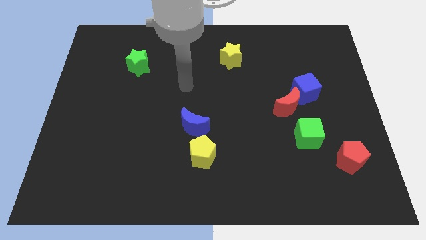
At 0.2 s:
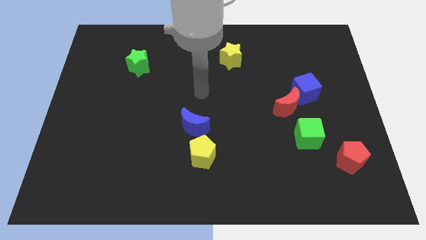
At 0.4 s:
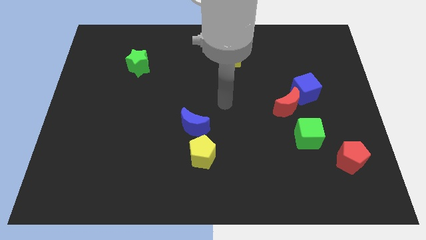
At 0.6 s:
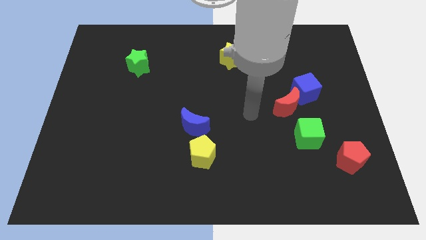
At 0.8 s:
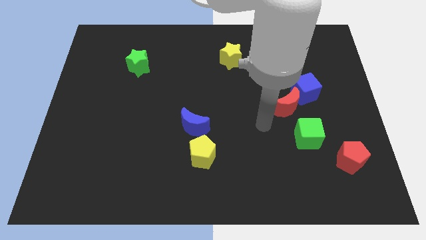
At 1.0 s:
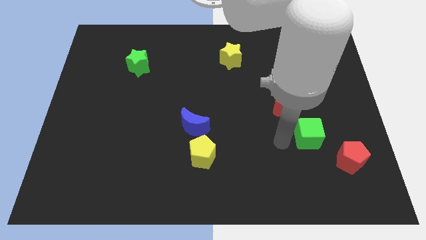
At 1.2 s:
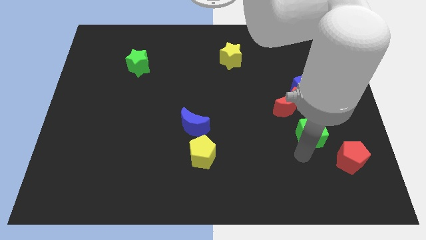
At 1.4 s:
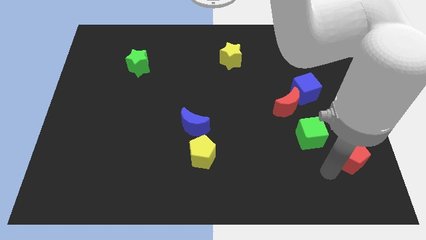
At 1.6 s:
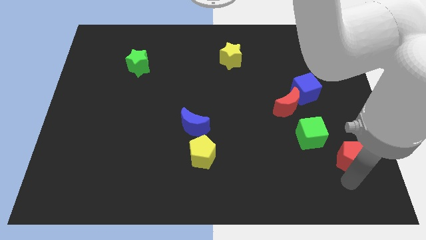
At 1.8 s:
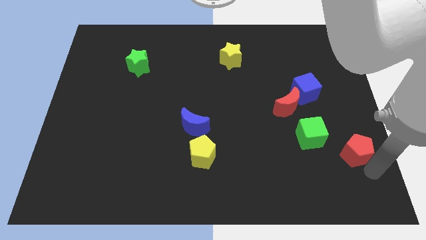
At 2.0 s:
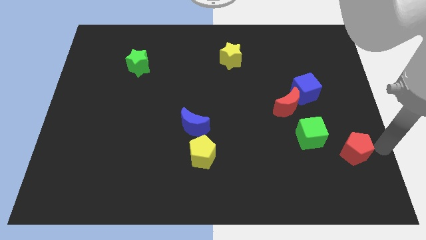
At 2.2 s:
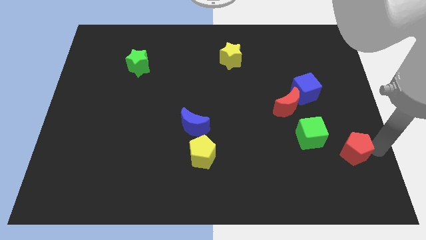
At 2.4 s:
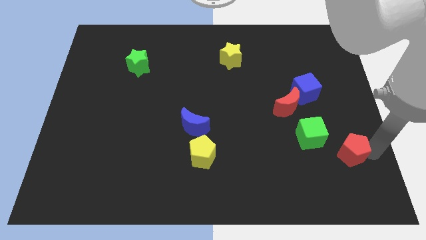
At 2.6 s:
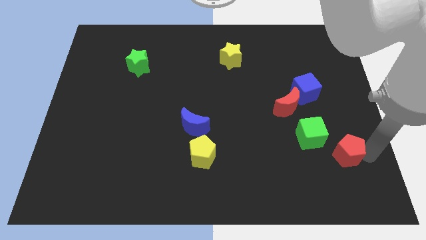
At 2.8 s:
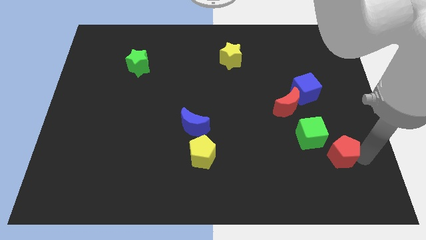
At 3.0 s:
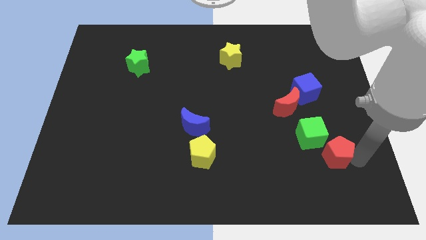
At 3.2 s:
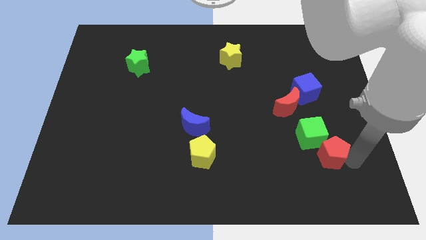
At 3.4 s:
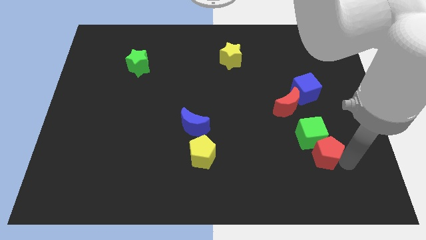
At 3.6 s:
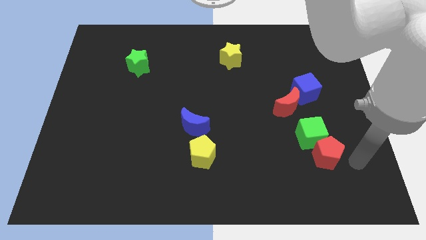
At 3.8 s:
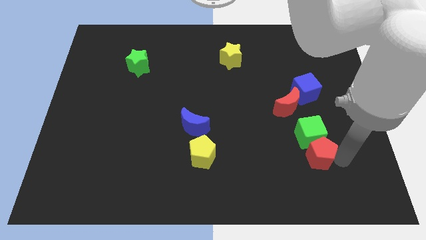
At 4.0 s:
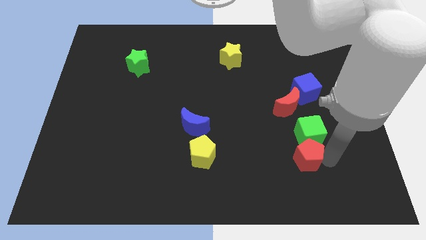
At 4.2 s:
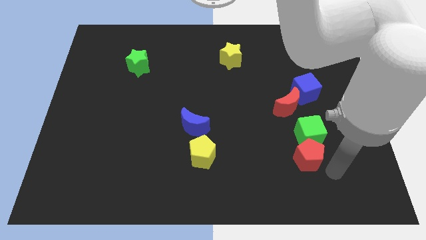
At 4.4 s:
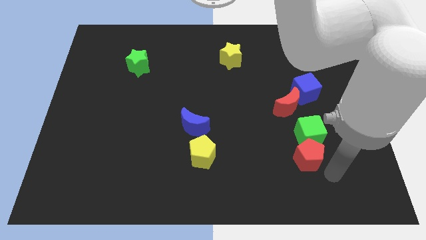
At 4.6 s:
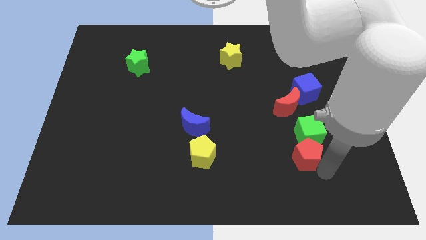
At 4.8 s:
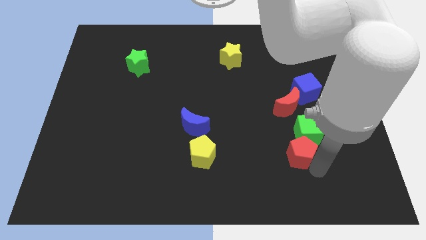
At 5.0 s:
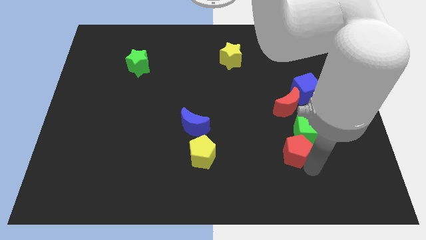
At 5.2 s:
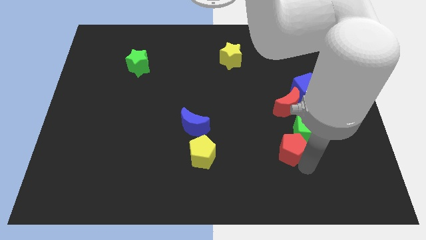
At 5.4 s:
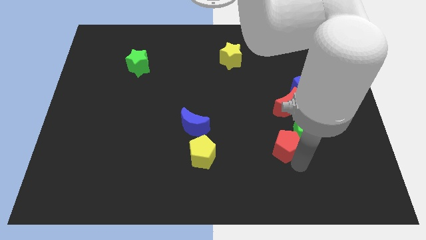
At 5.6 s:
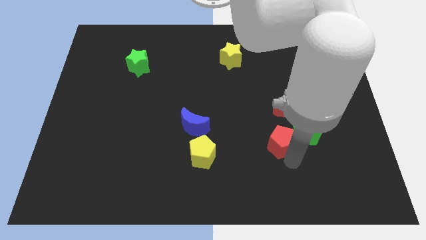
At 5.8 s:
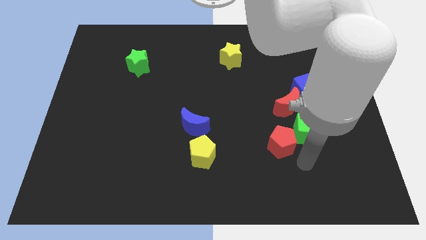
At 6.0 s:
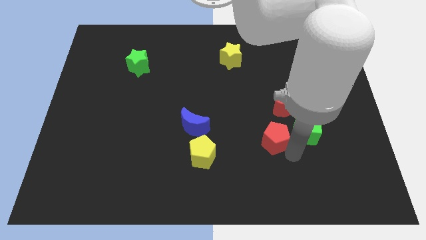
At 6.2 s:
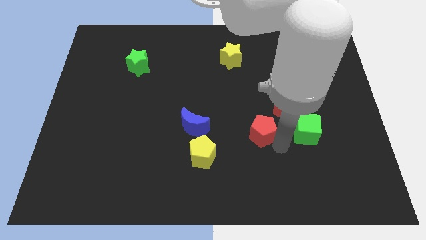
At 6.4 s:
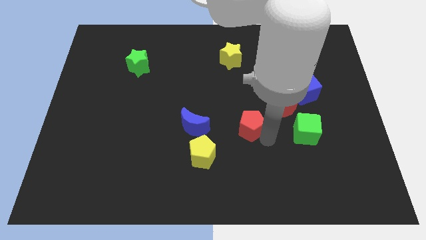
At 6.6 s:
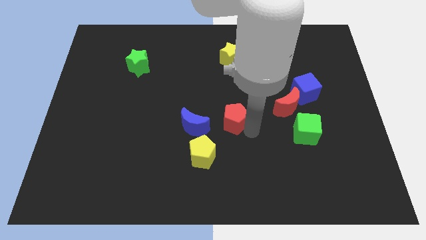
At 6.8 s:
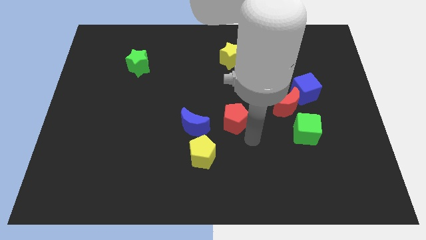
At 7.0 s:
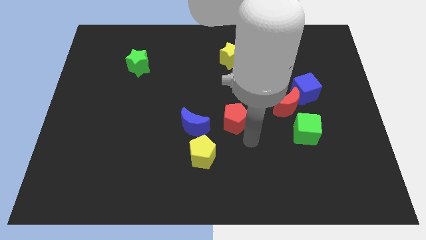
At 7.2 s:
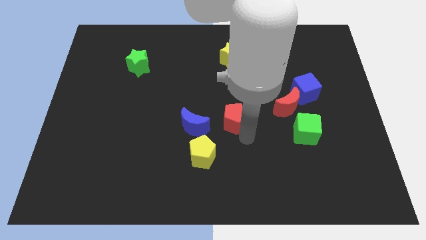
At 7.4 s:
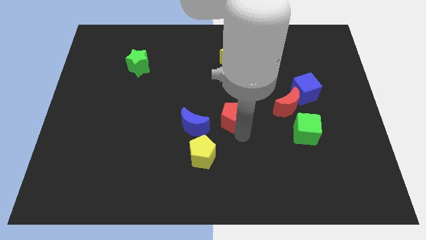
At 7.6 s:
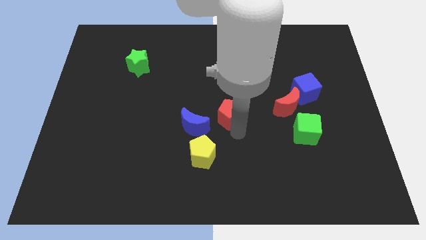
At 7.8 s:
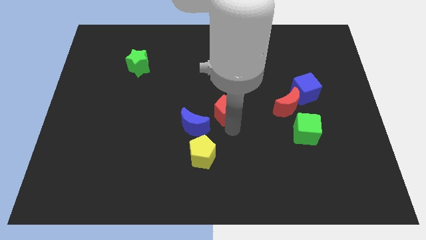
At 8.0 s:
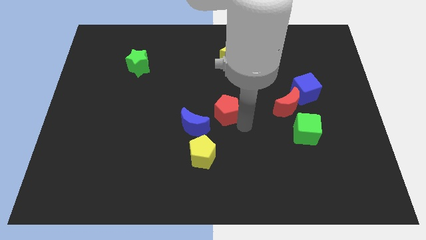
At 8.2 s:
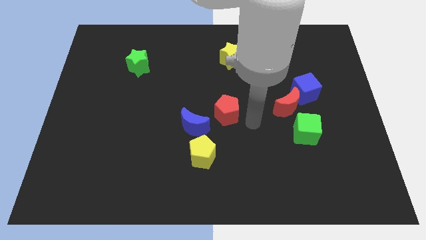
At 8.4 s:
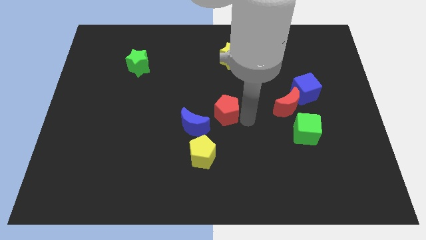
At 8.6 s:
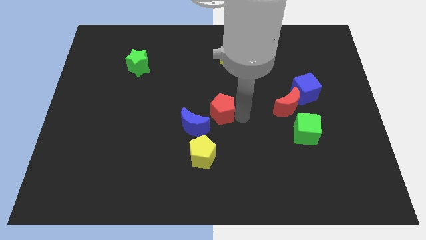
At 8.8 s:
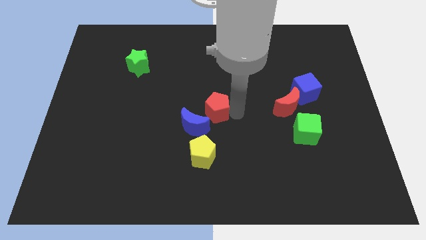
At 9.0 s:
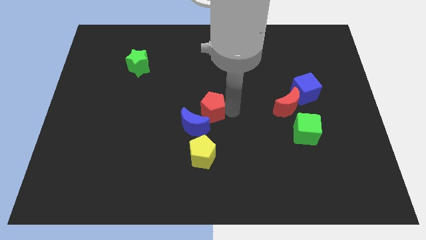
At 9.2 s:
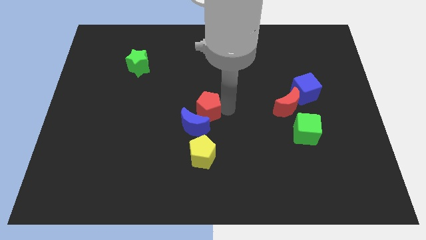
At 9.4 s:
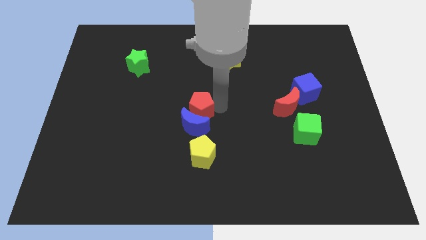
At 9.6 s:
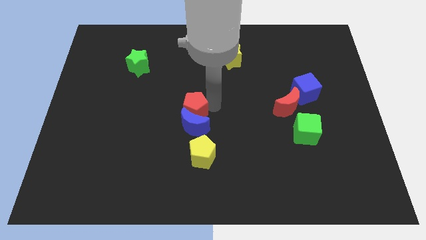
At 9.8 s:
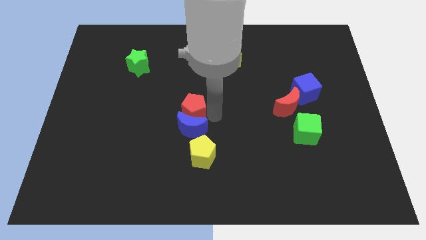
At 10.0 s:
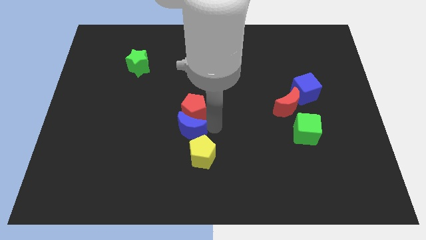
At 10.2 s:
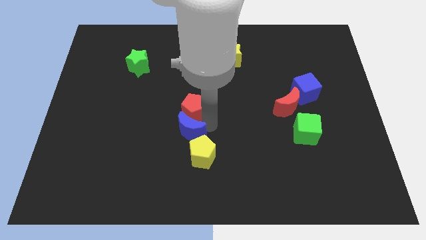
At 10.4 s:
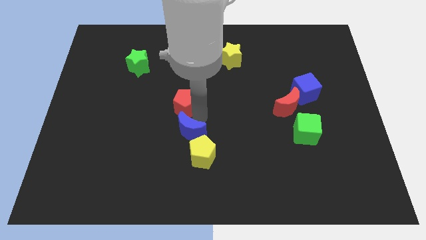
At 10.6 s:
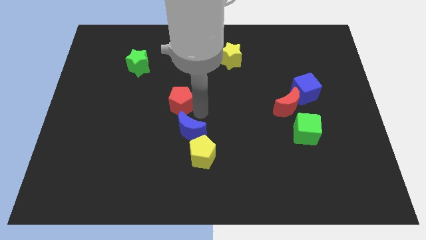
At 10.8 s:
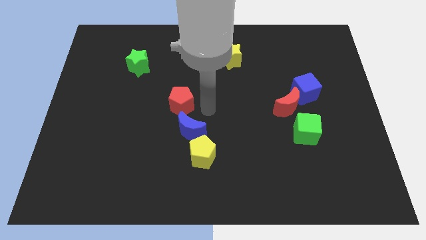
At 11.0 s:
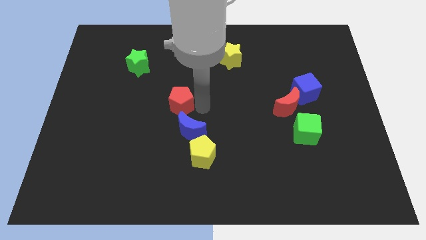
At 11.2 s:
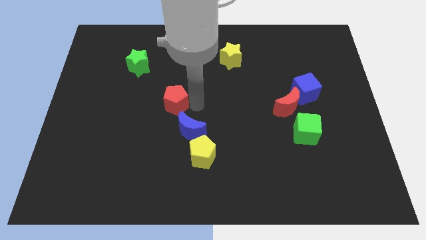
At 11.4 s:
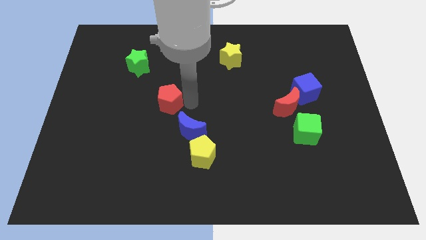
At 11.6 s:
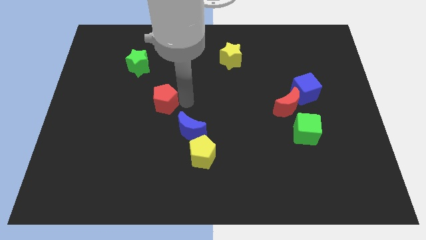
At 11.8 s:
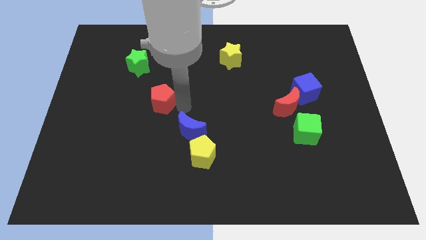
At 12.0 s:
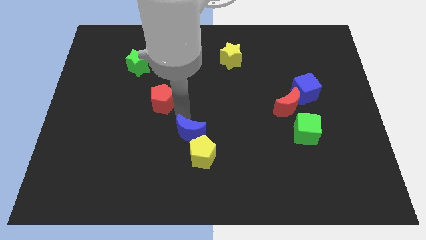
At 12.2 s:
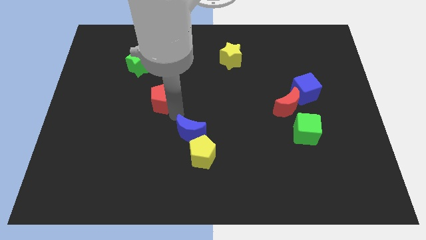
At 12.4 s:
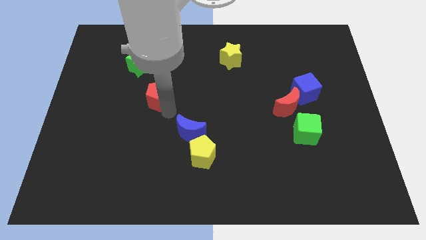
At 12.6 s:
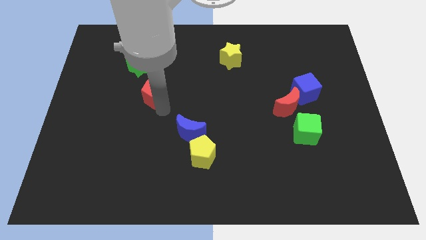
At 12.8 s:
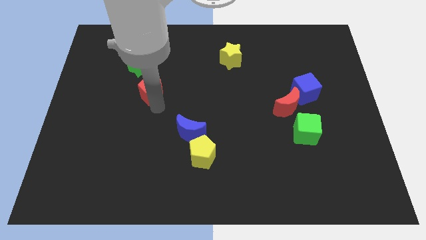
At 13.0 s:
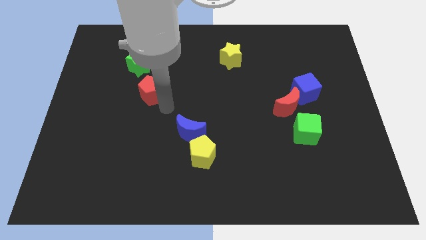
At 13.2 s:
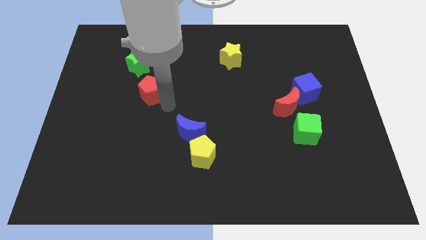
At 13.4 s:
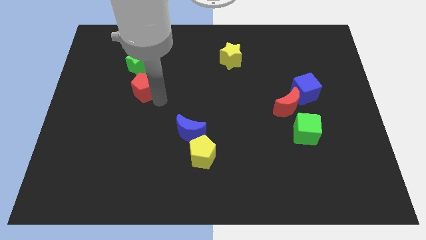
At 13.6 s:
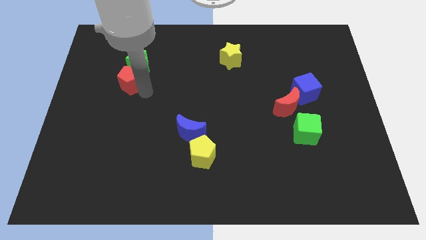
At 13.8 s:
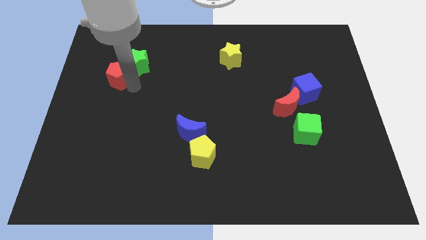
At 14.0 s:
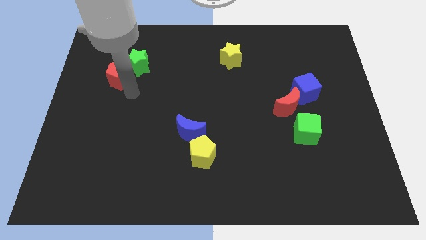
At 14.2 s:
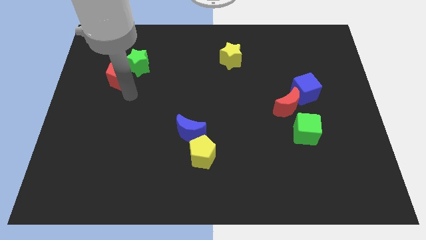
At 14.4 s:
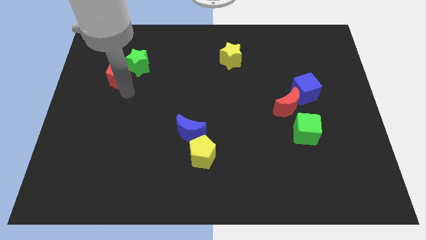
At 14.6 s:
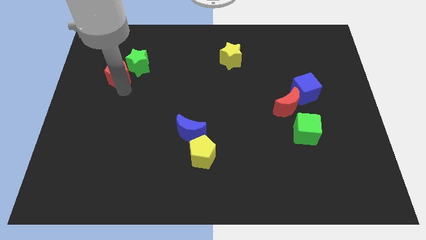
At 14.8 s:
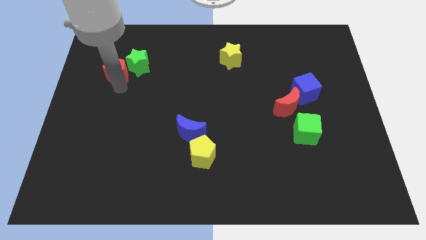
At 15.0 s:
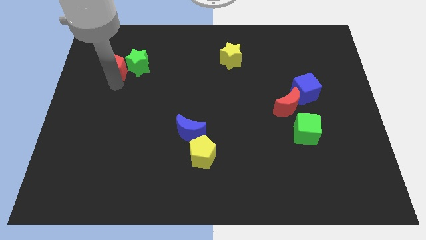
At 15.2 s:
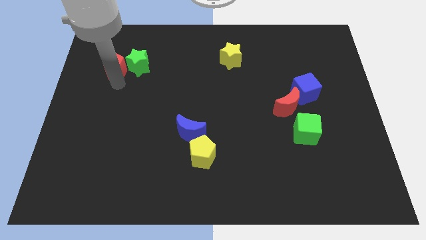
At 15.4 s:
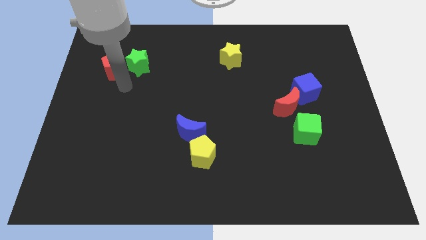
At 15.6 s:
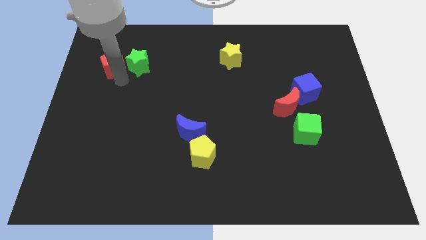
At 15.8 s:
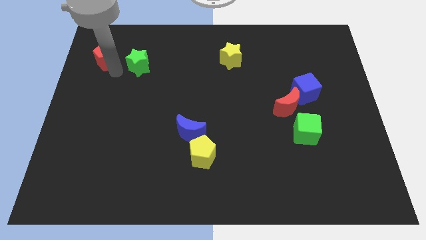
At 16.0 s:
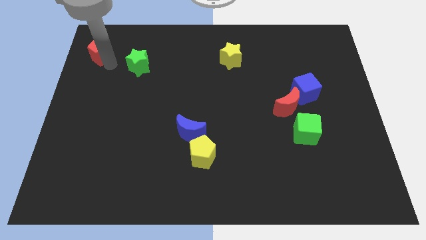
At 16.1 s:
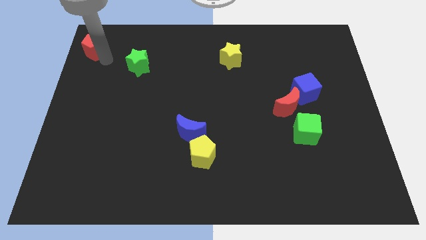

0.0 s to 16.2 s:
put the red pentagon to the top left of the board
